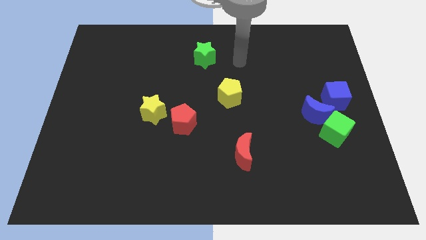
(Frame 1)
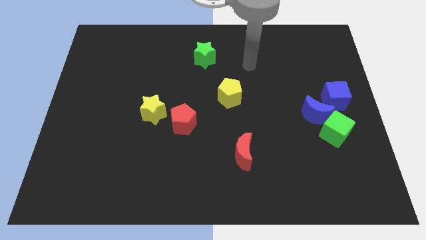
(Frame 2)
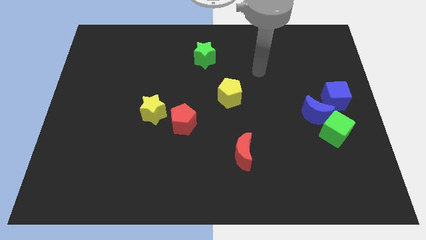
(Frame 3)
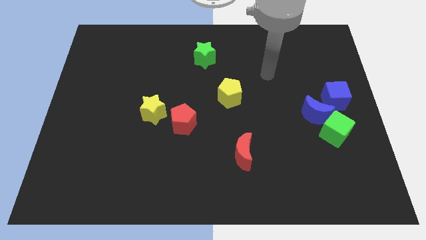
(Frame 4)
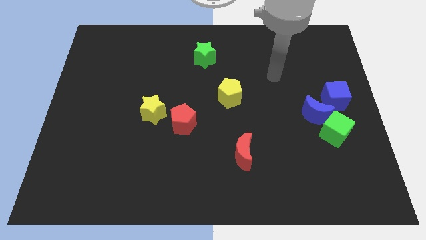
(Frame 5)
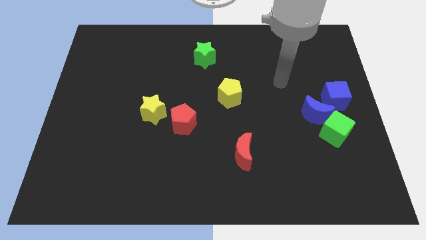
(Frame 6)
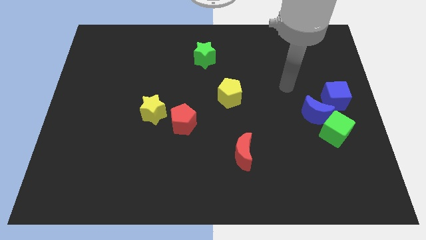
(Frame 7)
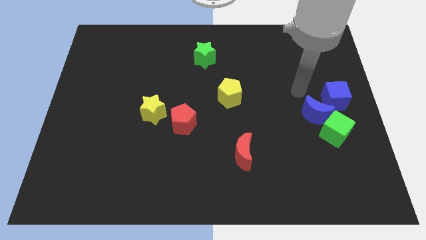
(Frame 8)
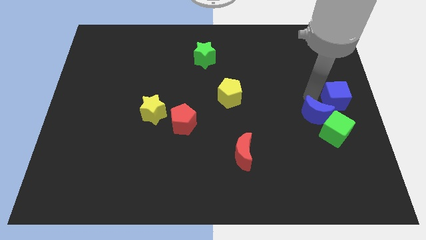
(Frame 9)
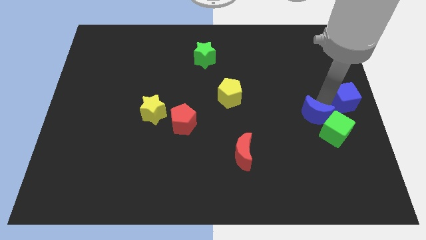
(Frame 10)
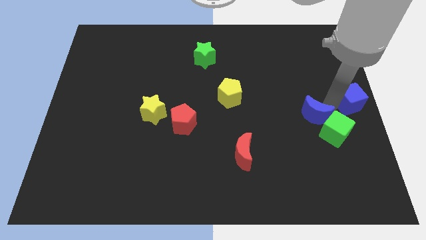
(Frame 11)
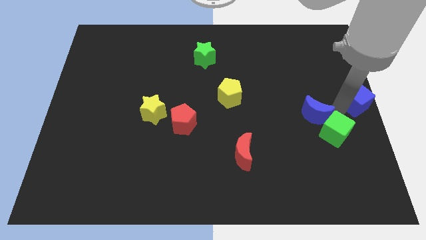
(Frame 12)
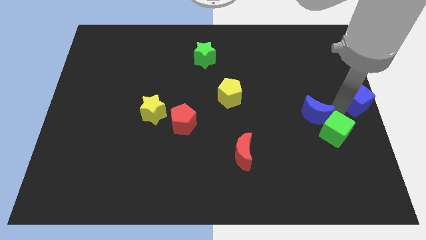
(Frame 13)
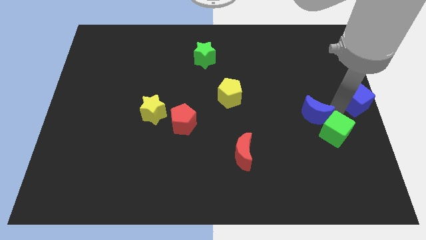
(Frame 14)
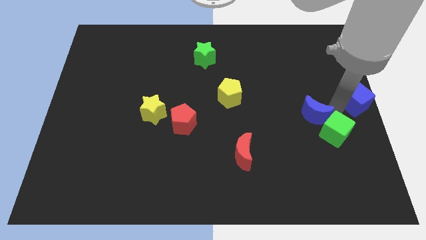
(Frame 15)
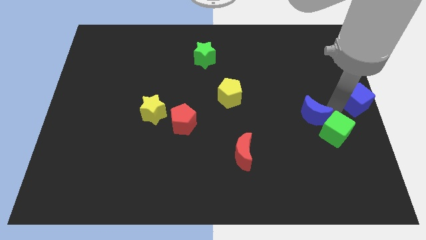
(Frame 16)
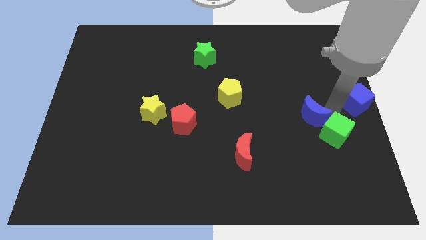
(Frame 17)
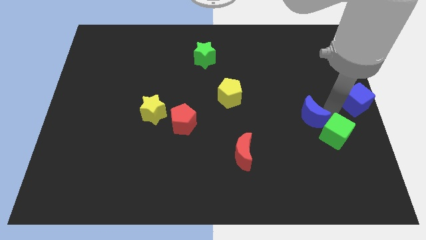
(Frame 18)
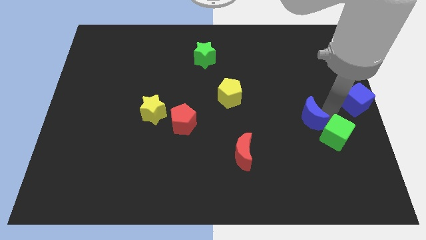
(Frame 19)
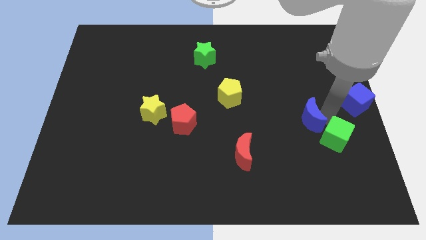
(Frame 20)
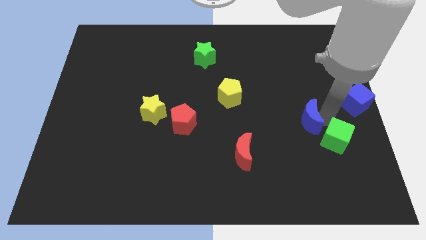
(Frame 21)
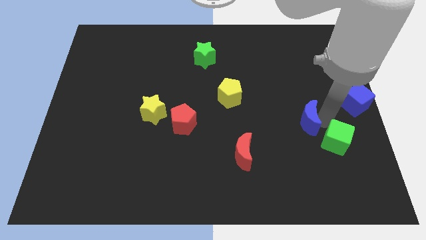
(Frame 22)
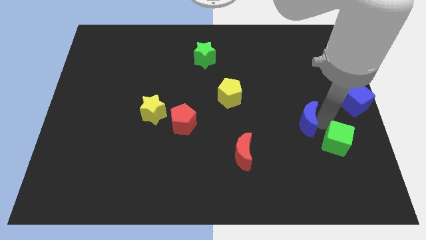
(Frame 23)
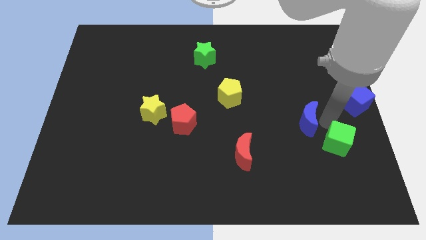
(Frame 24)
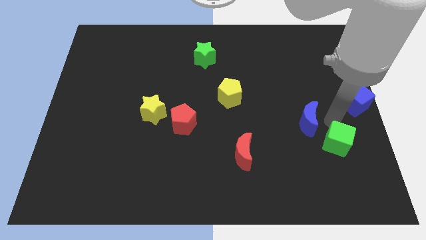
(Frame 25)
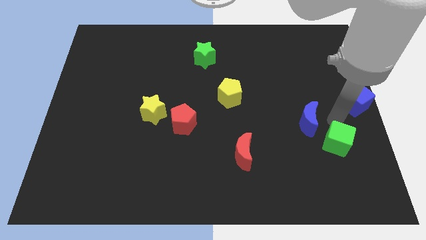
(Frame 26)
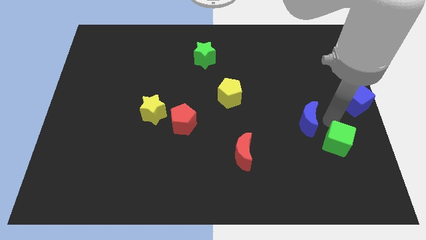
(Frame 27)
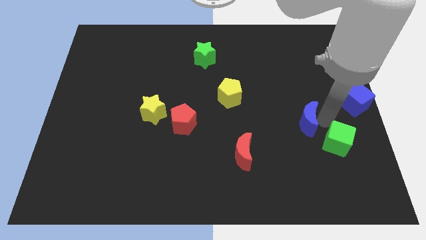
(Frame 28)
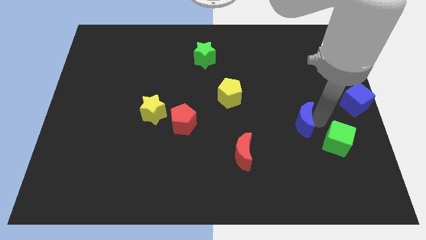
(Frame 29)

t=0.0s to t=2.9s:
separate the blue moon from the green cube and blue cube

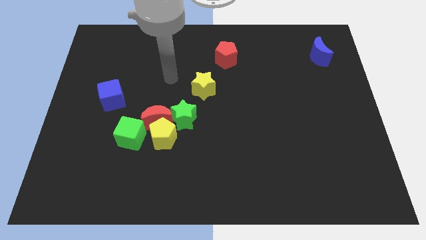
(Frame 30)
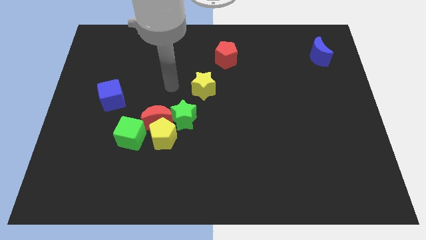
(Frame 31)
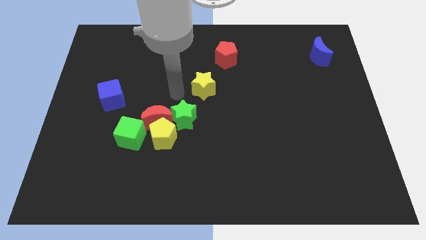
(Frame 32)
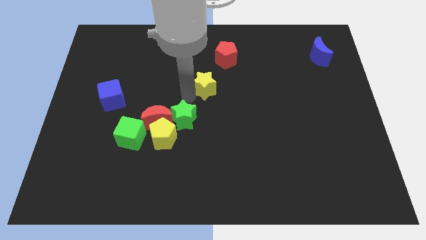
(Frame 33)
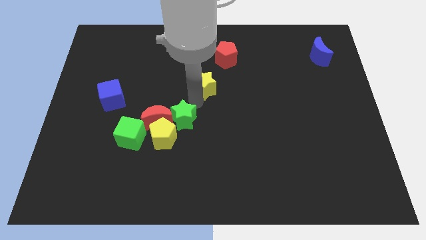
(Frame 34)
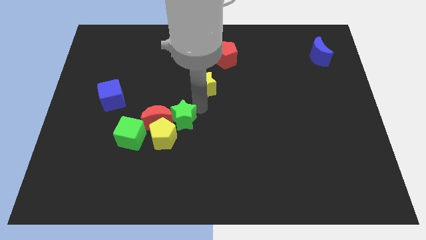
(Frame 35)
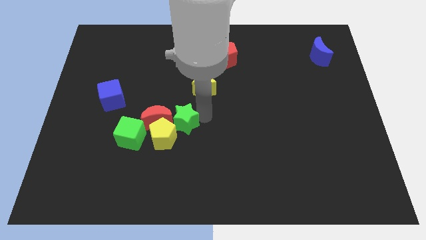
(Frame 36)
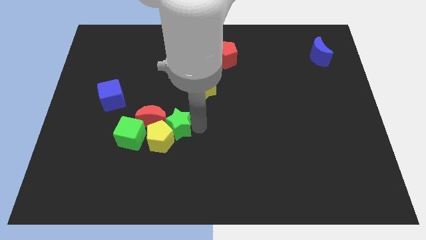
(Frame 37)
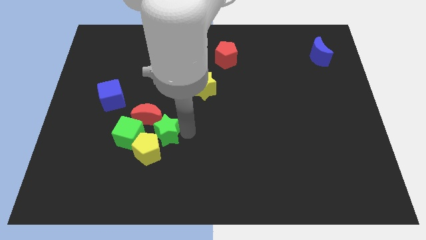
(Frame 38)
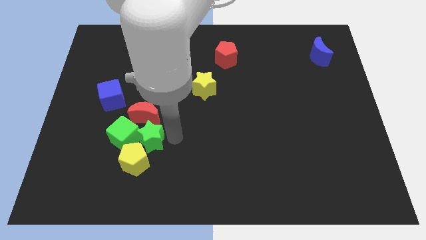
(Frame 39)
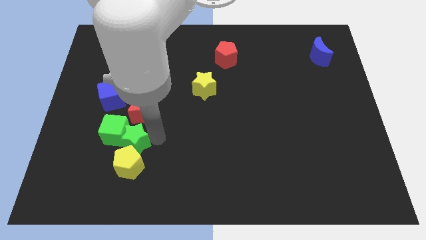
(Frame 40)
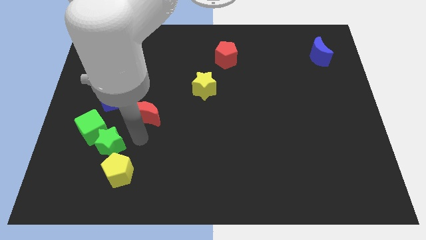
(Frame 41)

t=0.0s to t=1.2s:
pull the red moon apart from the yellow pentagon, green star, and green cube

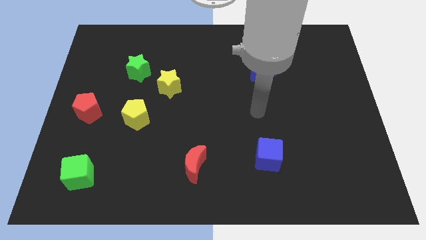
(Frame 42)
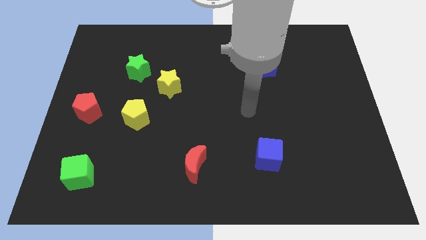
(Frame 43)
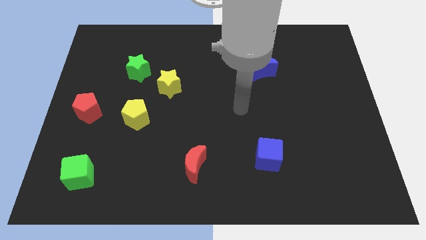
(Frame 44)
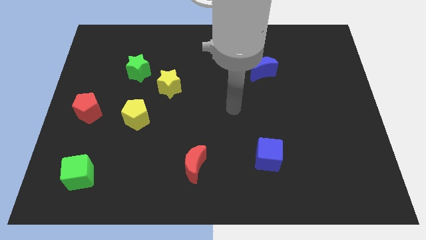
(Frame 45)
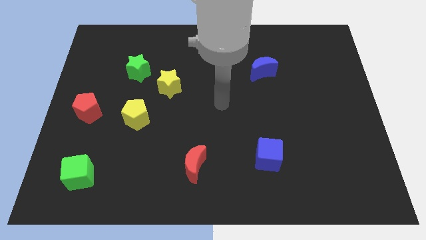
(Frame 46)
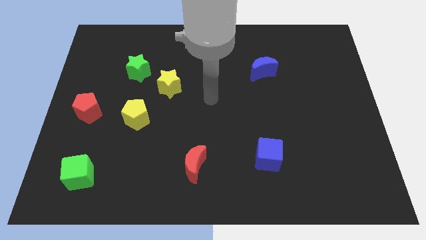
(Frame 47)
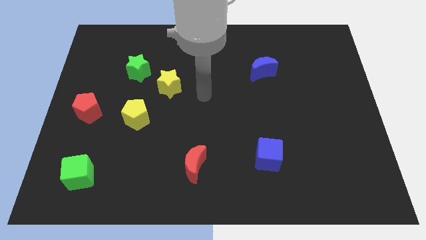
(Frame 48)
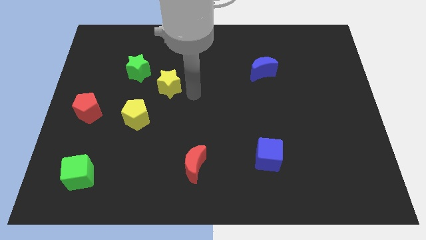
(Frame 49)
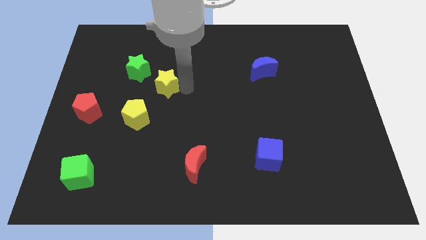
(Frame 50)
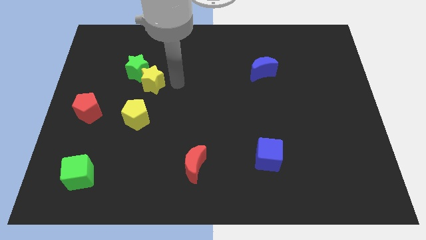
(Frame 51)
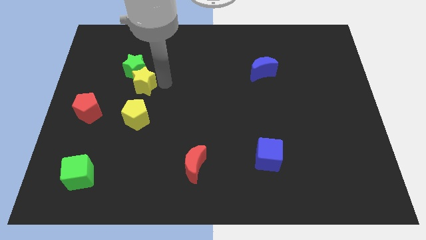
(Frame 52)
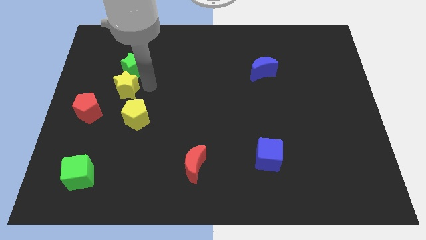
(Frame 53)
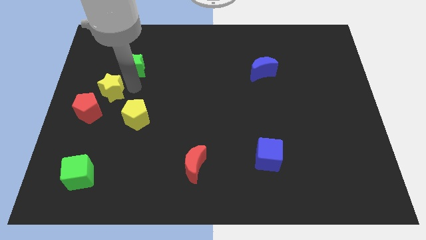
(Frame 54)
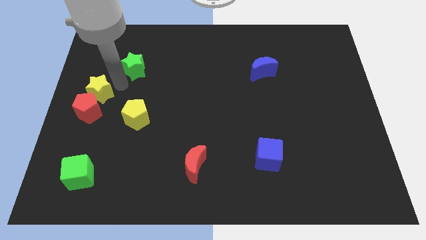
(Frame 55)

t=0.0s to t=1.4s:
move the green star away from the yellow star

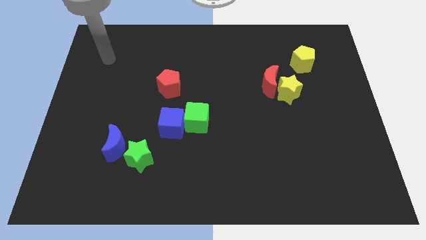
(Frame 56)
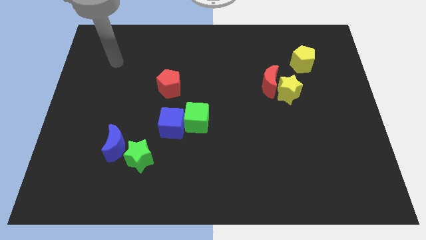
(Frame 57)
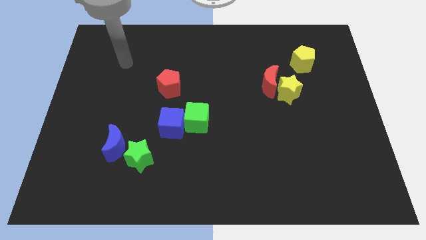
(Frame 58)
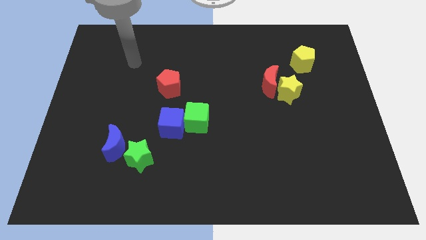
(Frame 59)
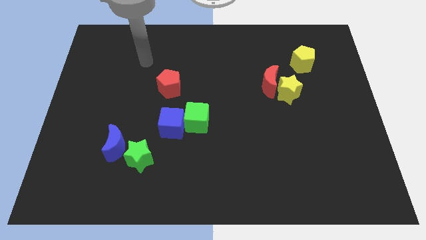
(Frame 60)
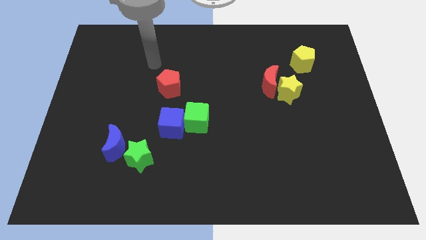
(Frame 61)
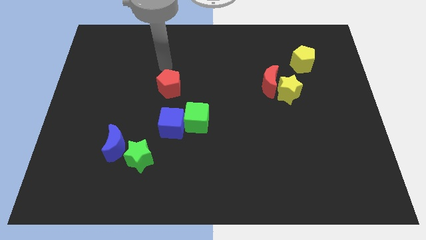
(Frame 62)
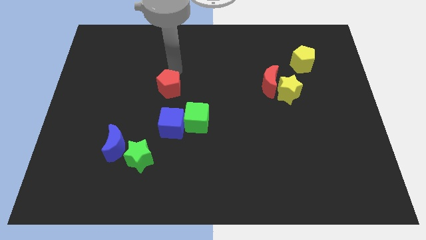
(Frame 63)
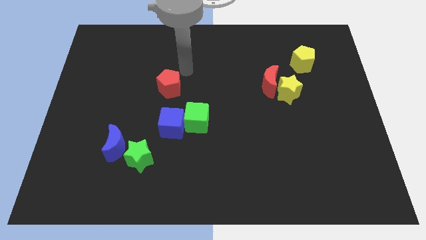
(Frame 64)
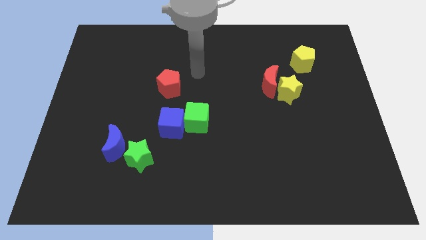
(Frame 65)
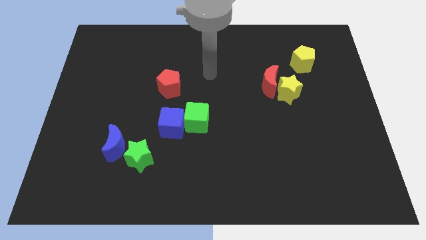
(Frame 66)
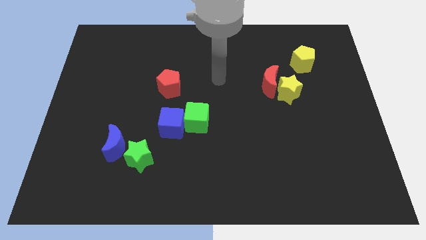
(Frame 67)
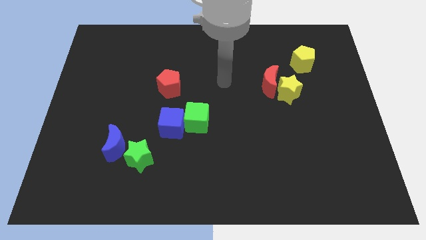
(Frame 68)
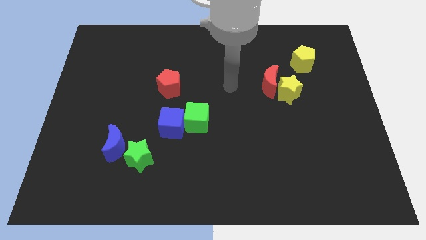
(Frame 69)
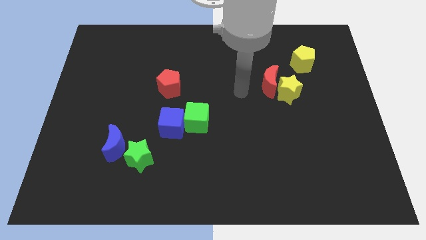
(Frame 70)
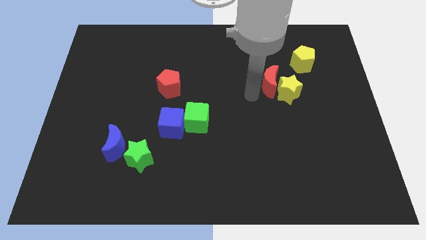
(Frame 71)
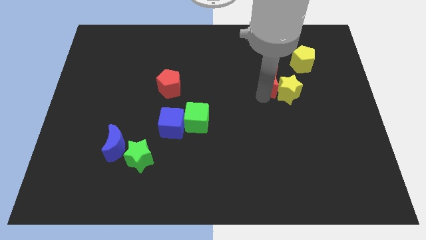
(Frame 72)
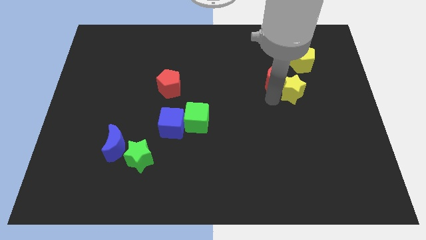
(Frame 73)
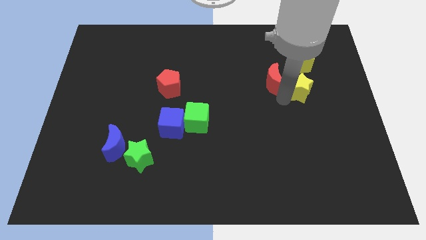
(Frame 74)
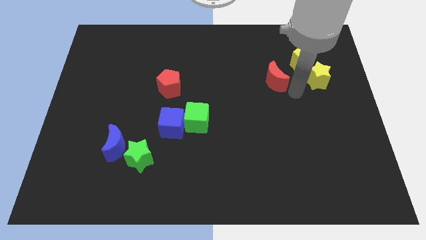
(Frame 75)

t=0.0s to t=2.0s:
pull the red moon apart from the yellow star

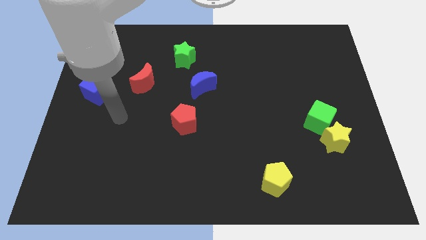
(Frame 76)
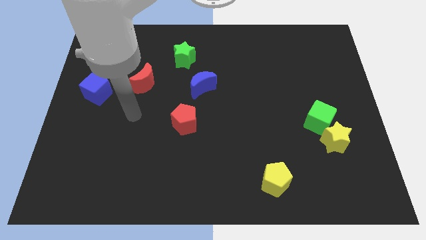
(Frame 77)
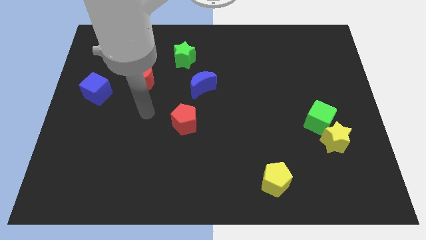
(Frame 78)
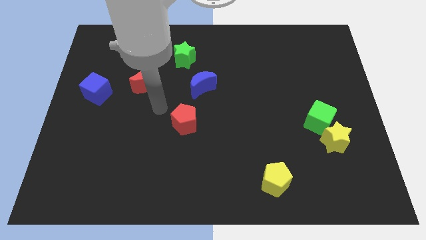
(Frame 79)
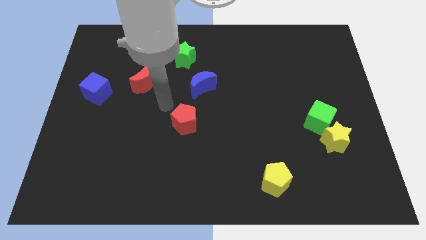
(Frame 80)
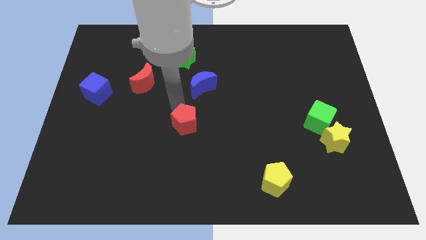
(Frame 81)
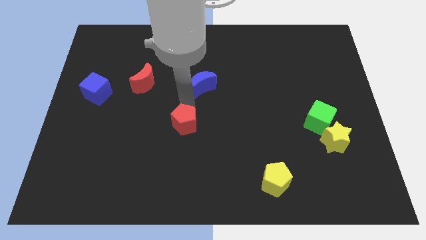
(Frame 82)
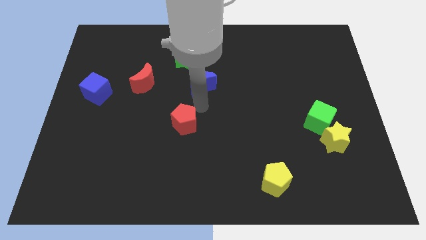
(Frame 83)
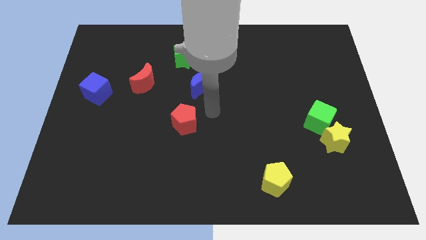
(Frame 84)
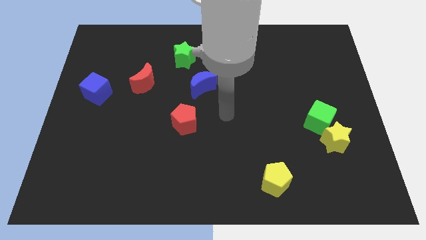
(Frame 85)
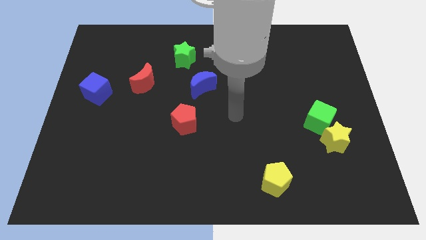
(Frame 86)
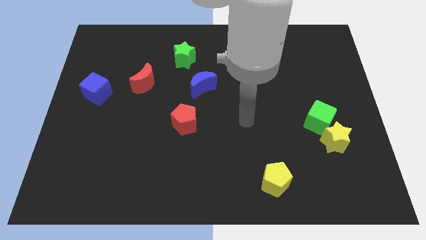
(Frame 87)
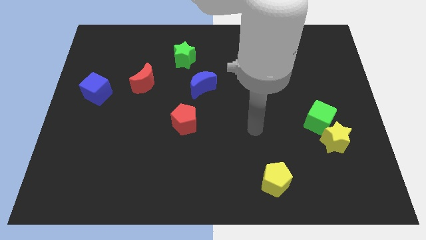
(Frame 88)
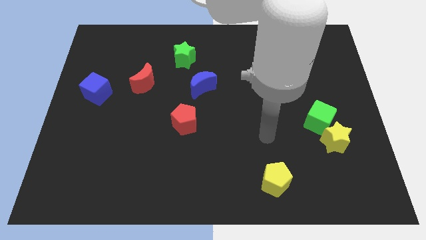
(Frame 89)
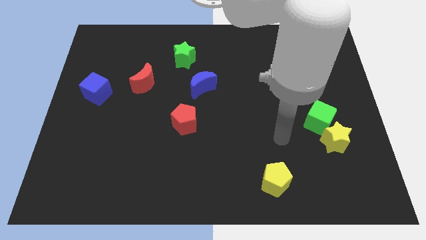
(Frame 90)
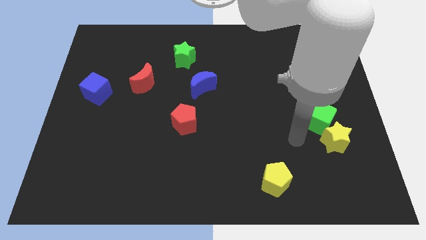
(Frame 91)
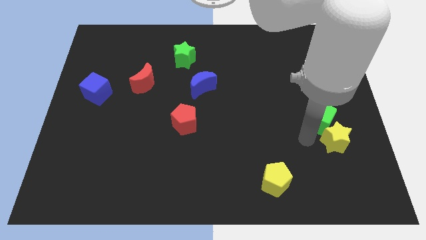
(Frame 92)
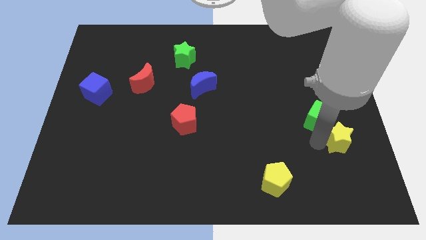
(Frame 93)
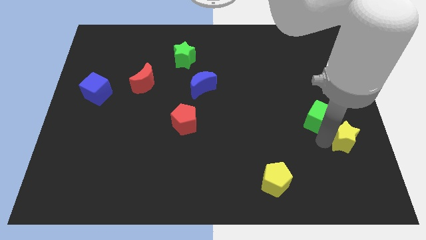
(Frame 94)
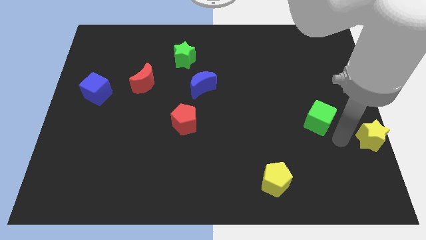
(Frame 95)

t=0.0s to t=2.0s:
pull the green cube apart from the yellow star
